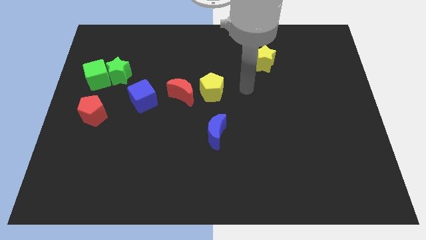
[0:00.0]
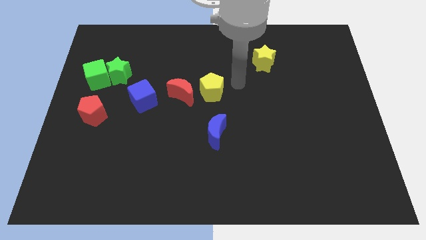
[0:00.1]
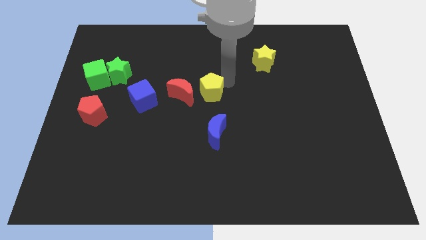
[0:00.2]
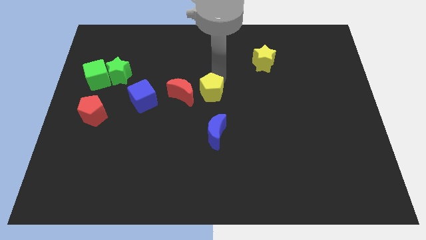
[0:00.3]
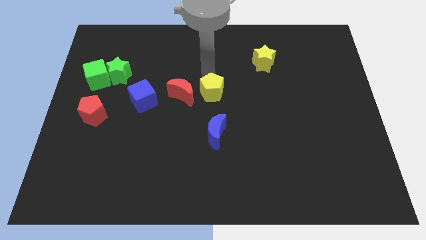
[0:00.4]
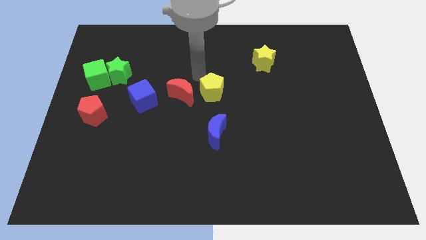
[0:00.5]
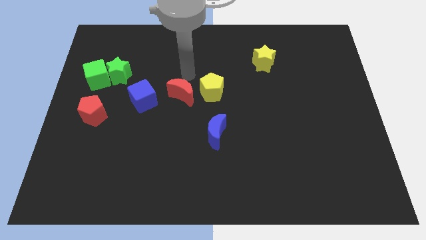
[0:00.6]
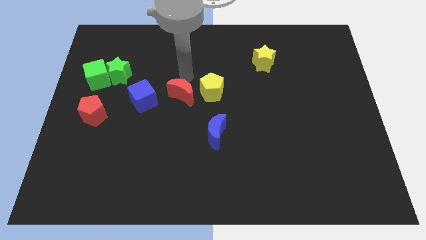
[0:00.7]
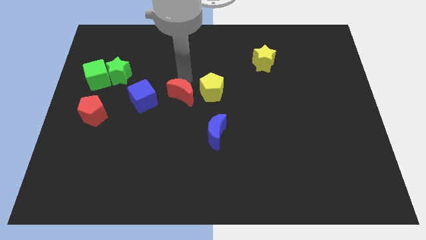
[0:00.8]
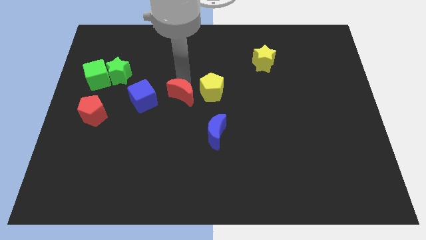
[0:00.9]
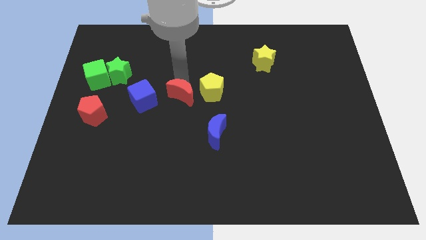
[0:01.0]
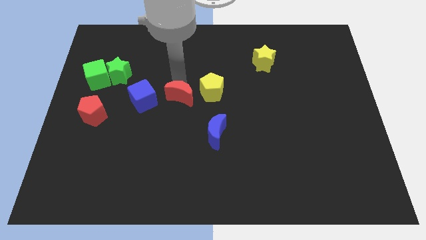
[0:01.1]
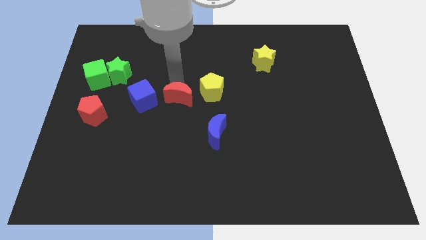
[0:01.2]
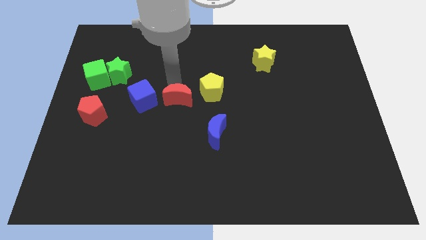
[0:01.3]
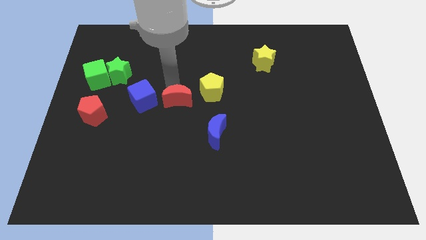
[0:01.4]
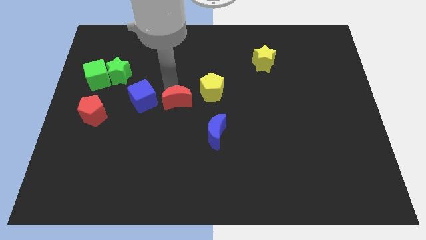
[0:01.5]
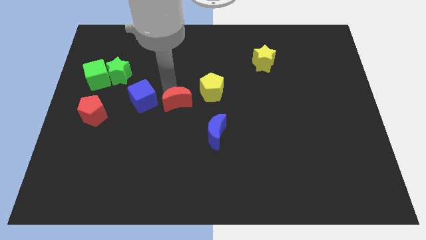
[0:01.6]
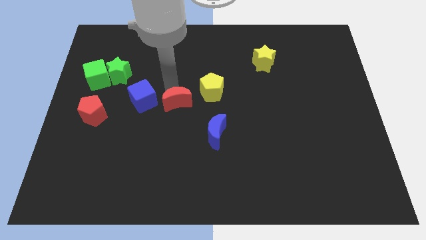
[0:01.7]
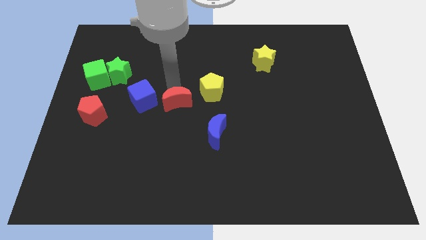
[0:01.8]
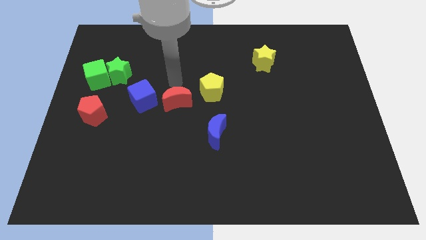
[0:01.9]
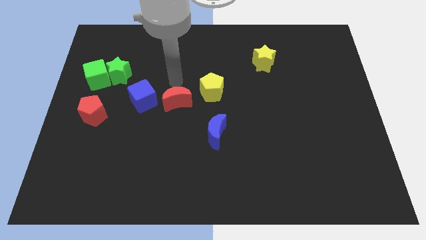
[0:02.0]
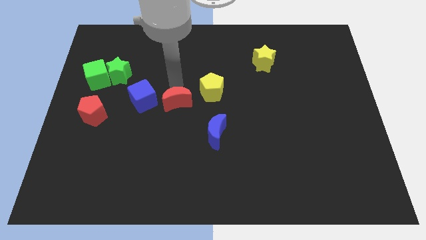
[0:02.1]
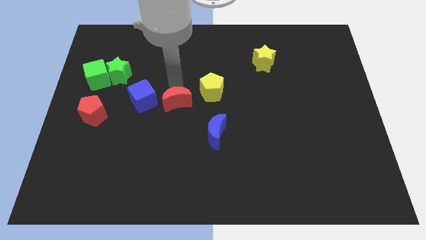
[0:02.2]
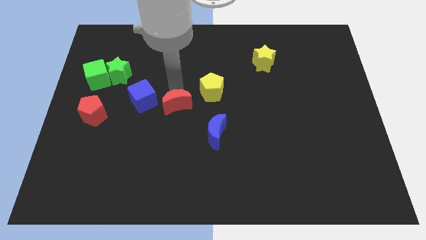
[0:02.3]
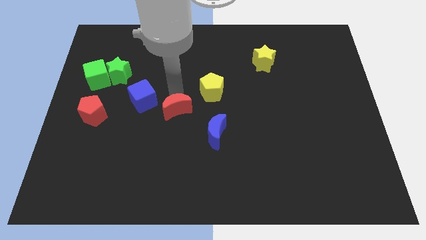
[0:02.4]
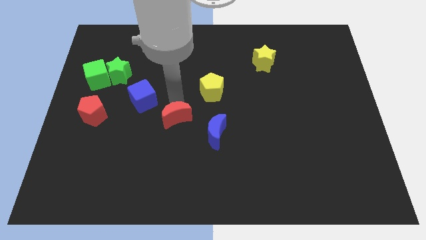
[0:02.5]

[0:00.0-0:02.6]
slide the red moon down a bit

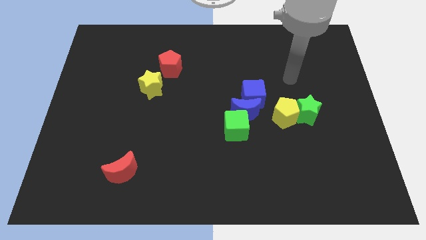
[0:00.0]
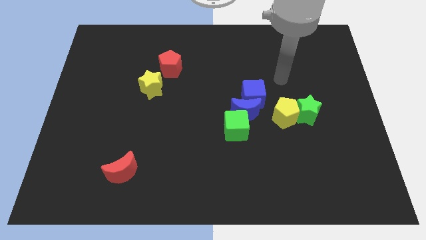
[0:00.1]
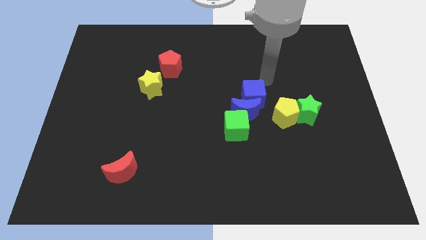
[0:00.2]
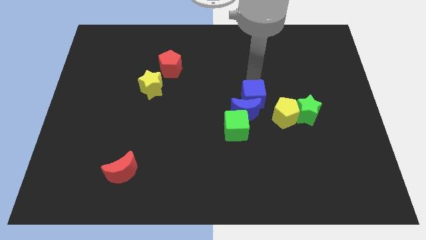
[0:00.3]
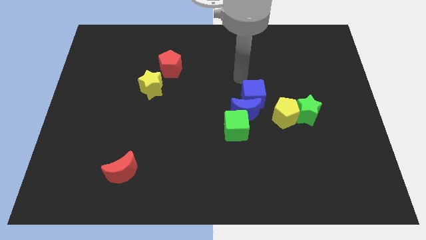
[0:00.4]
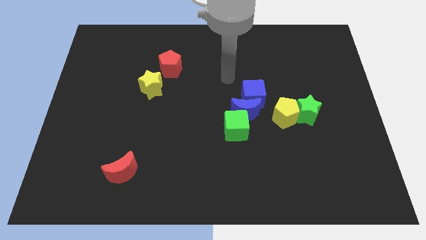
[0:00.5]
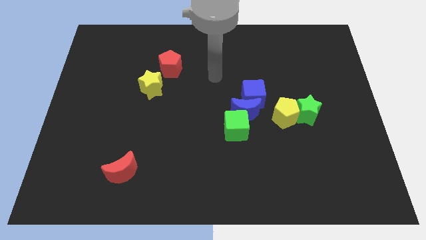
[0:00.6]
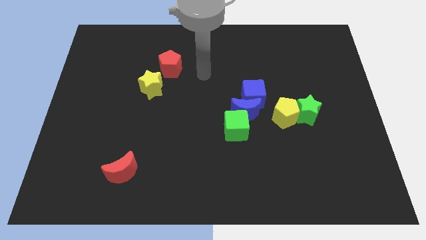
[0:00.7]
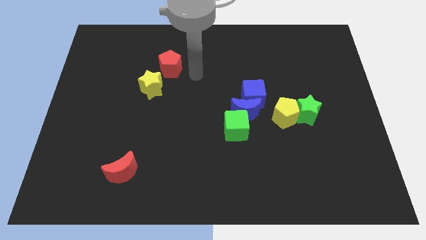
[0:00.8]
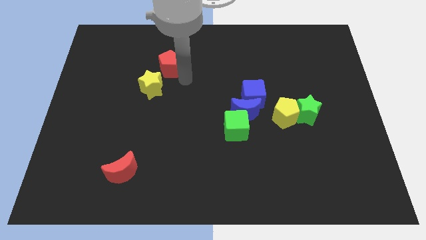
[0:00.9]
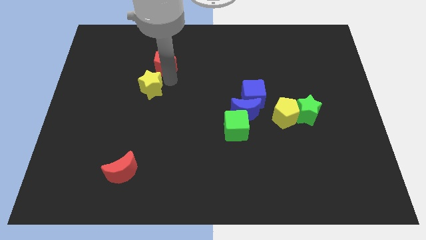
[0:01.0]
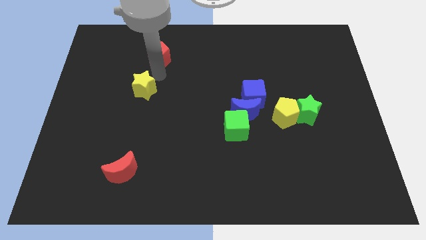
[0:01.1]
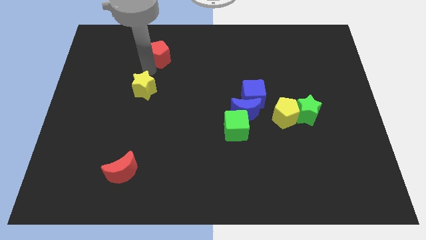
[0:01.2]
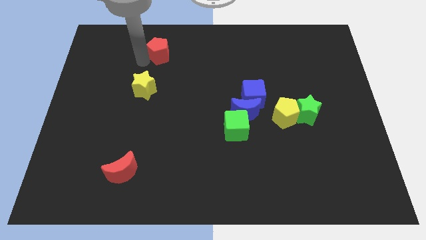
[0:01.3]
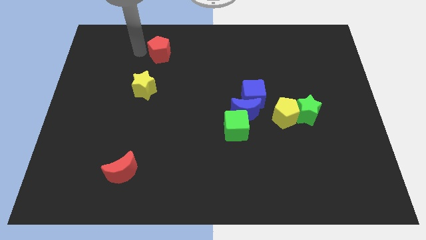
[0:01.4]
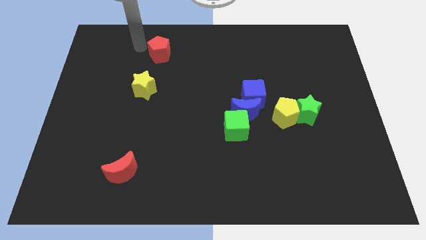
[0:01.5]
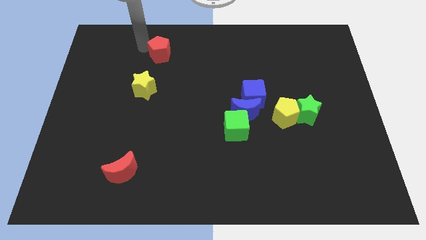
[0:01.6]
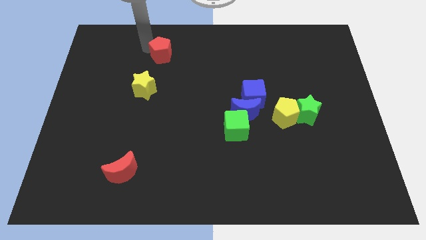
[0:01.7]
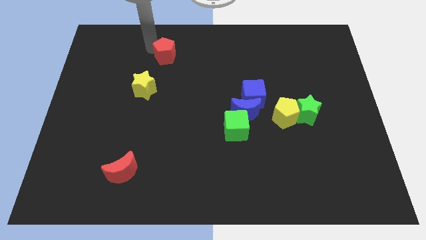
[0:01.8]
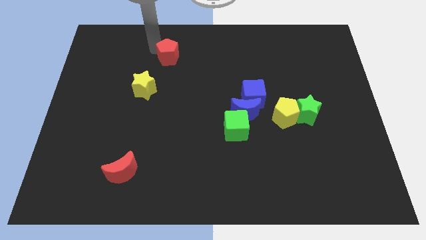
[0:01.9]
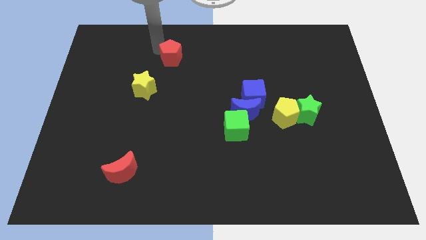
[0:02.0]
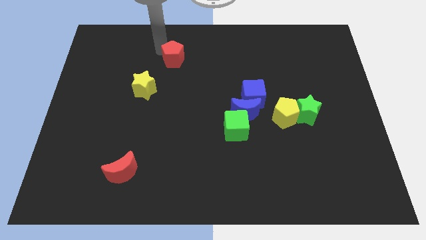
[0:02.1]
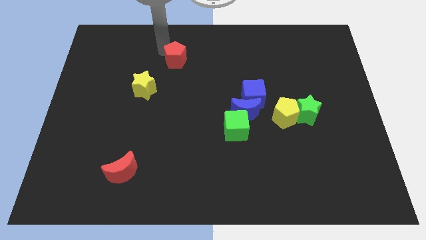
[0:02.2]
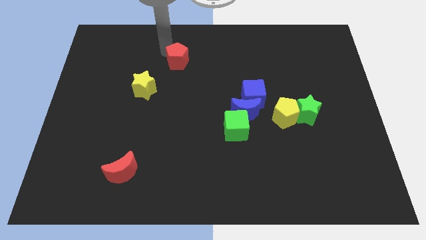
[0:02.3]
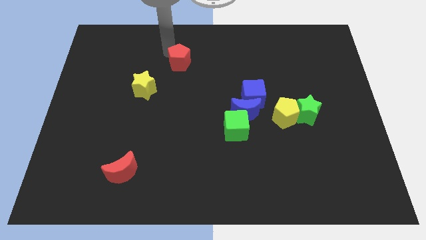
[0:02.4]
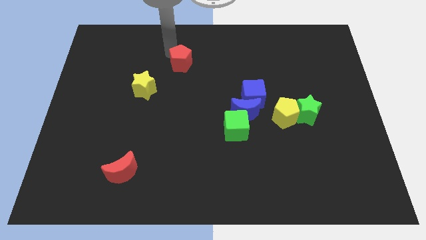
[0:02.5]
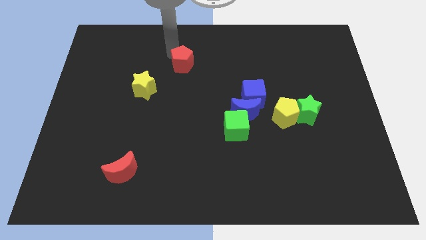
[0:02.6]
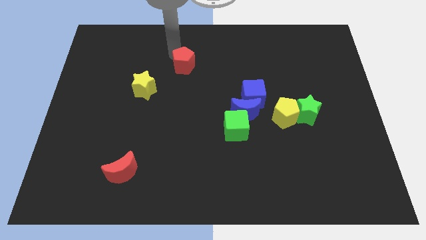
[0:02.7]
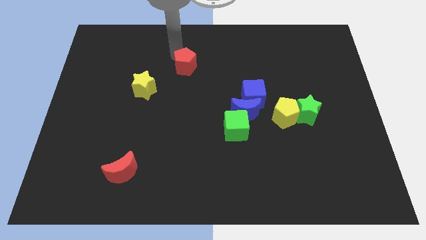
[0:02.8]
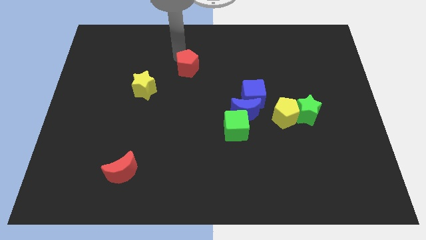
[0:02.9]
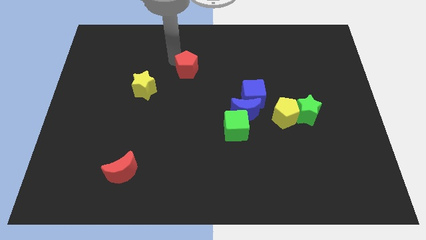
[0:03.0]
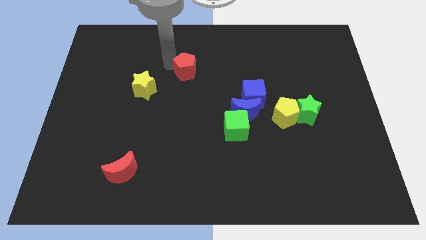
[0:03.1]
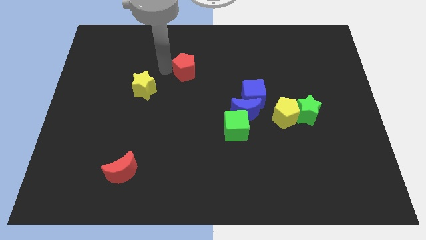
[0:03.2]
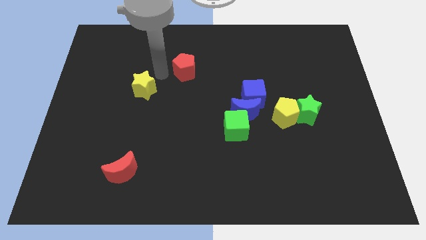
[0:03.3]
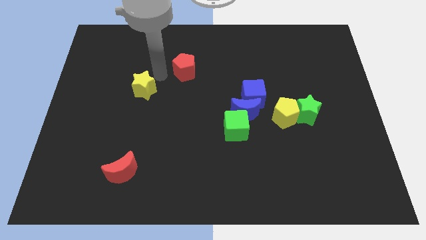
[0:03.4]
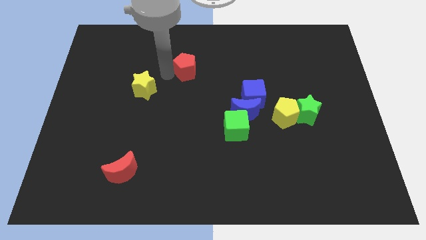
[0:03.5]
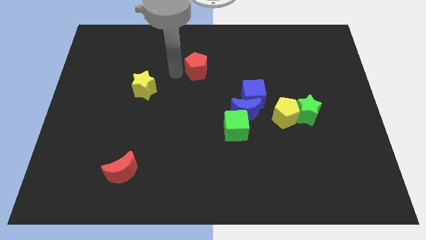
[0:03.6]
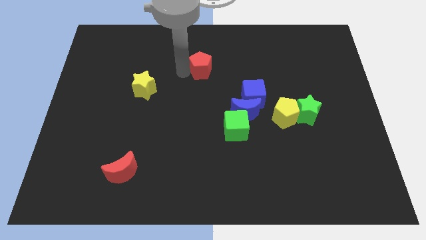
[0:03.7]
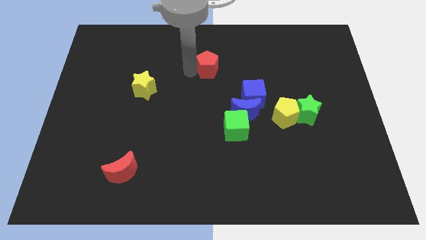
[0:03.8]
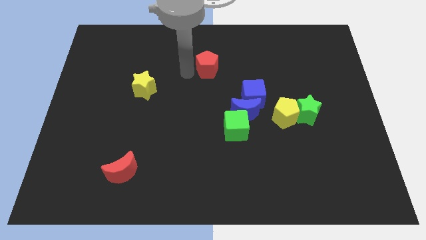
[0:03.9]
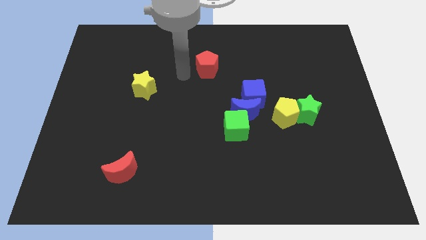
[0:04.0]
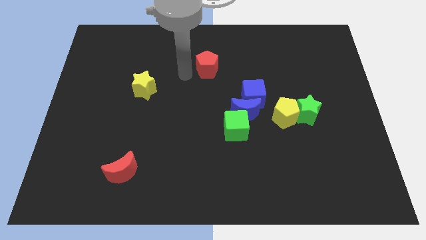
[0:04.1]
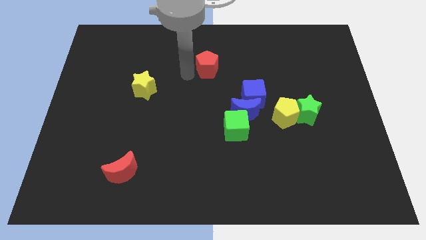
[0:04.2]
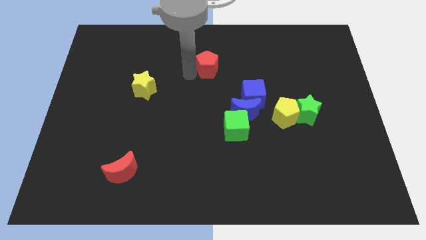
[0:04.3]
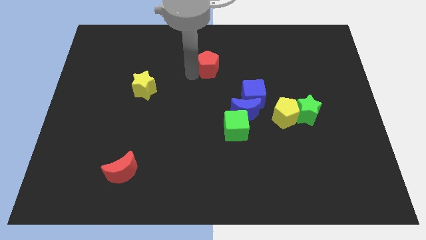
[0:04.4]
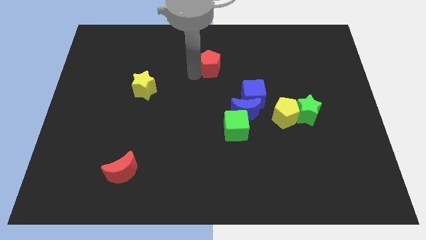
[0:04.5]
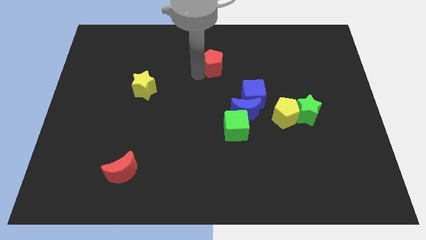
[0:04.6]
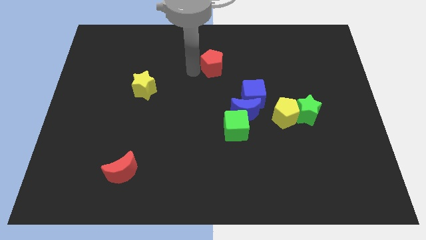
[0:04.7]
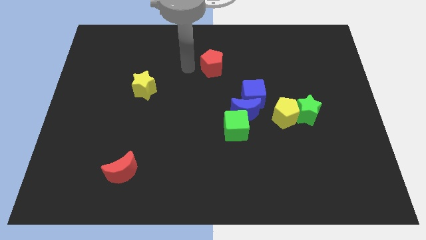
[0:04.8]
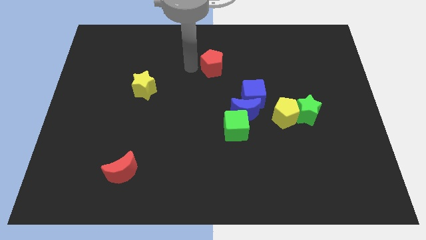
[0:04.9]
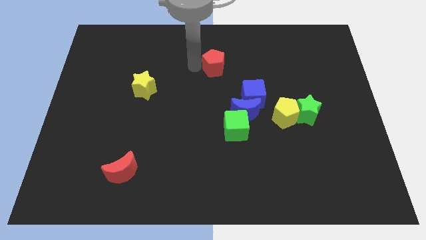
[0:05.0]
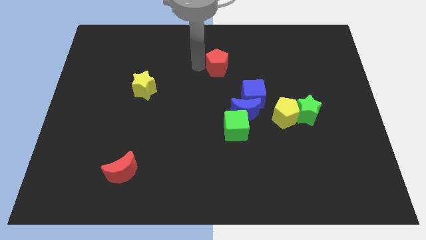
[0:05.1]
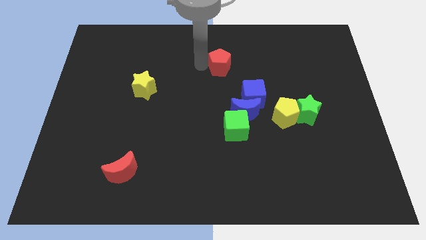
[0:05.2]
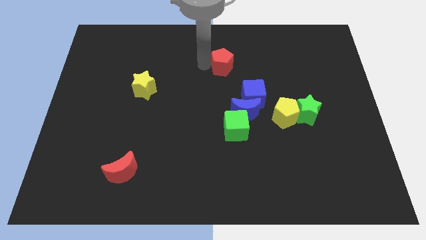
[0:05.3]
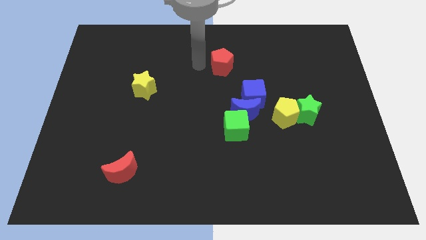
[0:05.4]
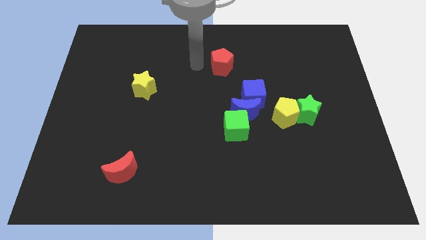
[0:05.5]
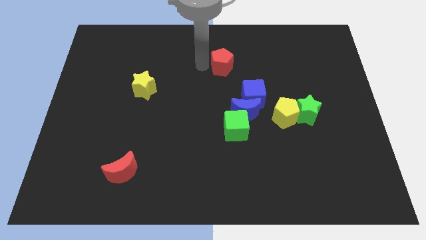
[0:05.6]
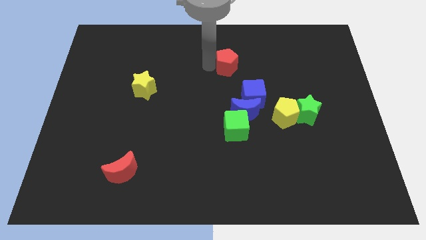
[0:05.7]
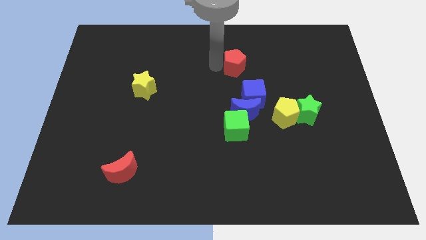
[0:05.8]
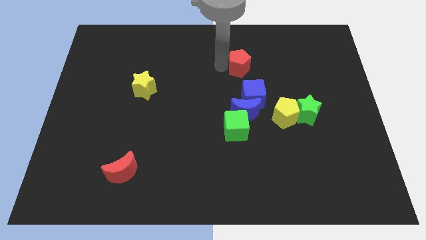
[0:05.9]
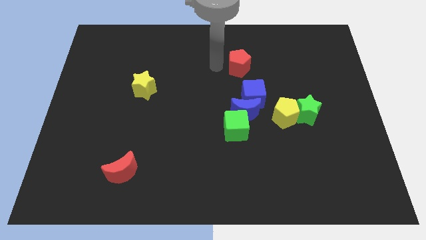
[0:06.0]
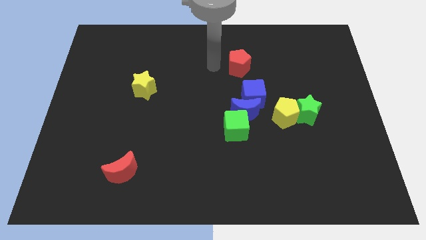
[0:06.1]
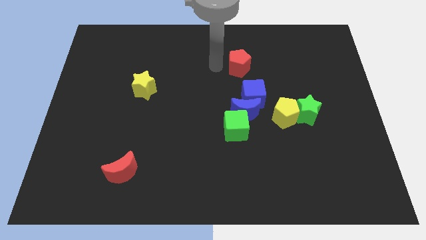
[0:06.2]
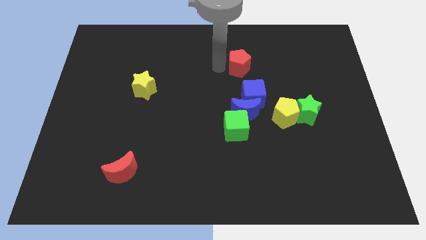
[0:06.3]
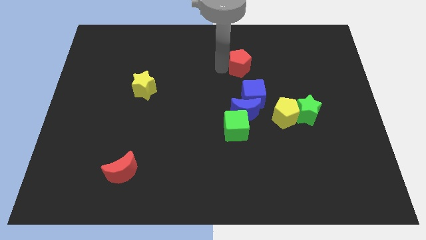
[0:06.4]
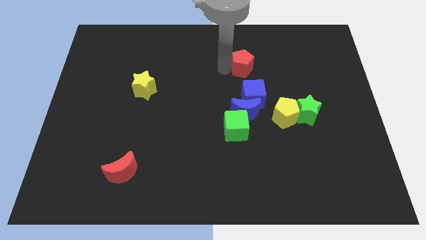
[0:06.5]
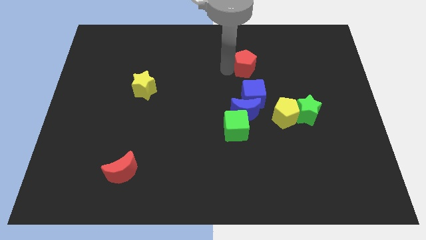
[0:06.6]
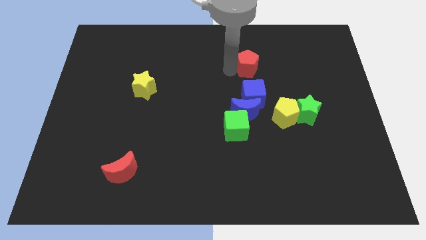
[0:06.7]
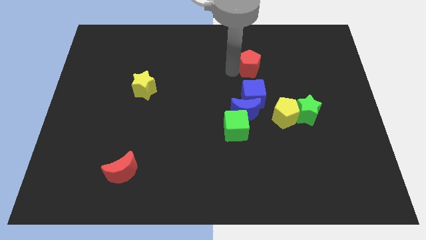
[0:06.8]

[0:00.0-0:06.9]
push the red pentagon right
